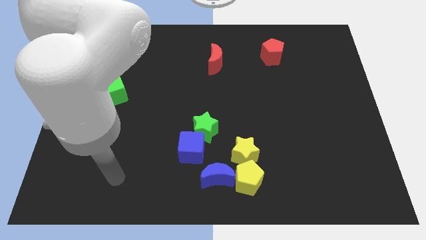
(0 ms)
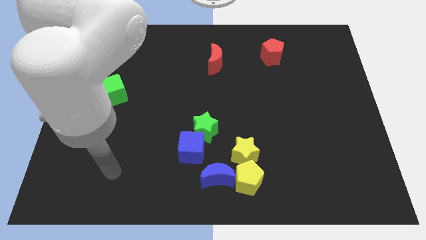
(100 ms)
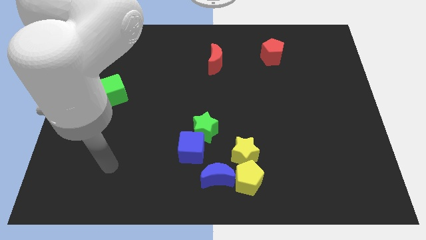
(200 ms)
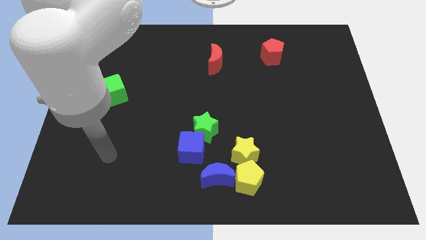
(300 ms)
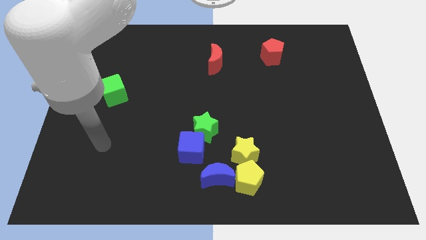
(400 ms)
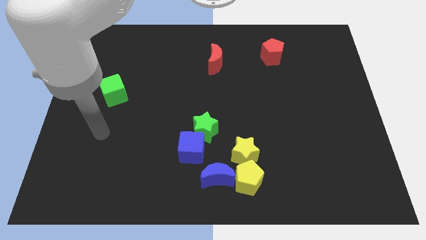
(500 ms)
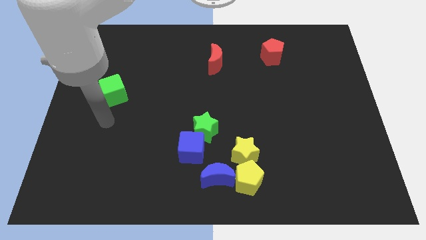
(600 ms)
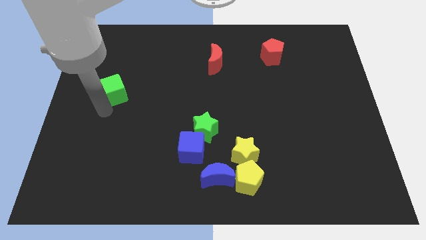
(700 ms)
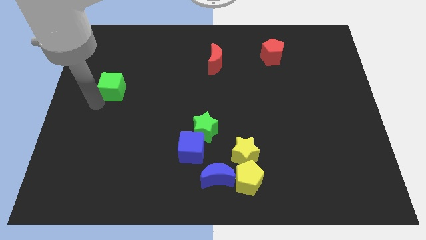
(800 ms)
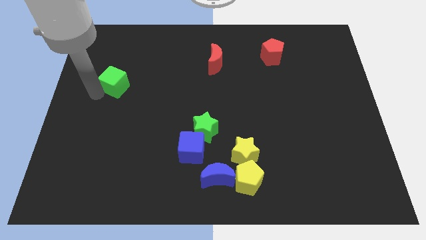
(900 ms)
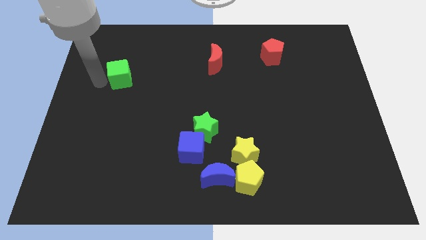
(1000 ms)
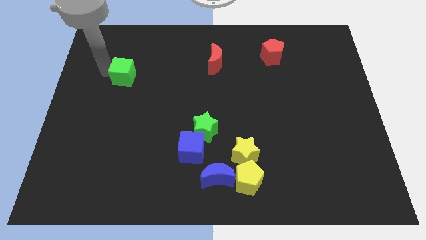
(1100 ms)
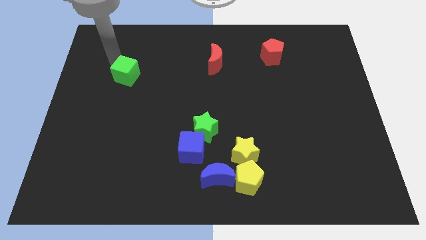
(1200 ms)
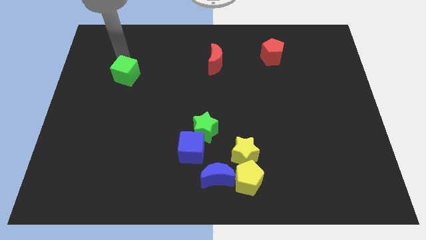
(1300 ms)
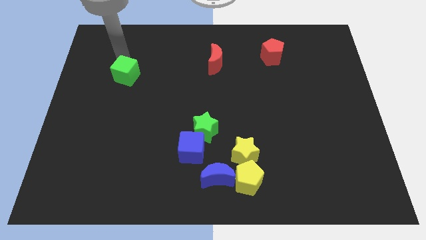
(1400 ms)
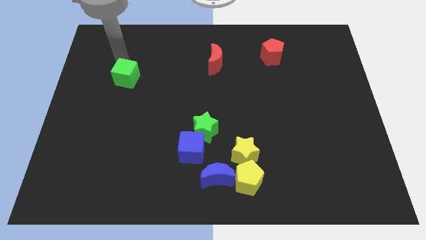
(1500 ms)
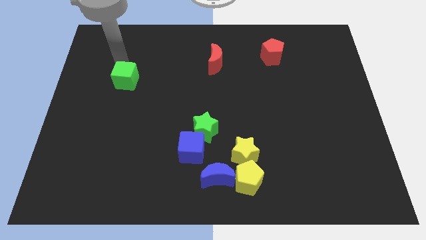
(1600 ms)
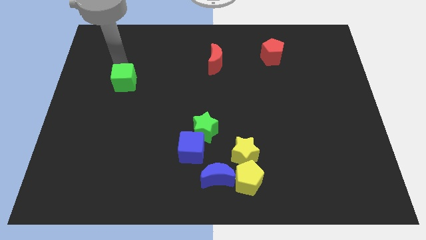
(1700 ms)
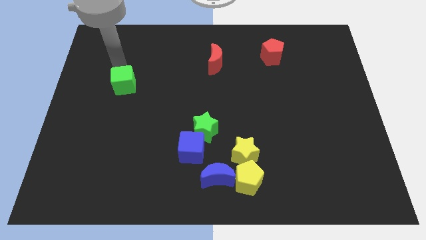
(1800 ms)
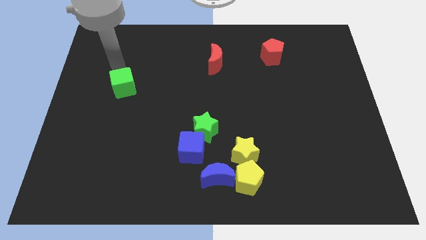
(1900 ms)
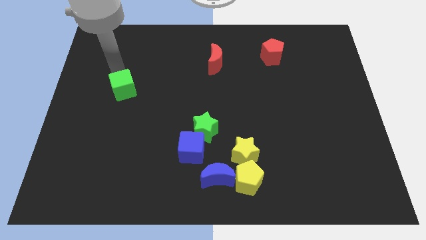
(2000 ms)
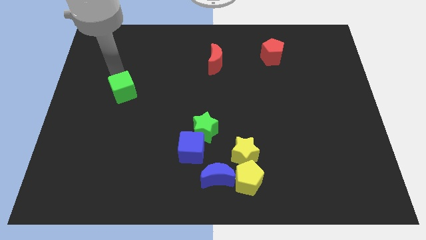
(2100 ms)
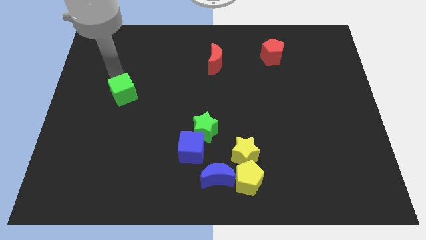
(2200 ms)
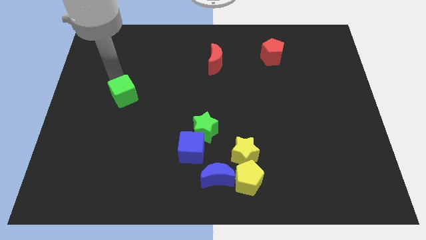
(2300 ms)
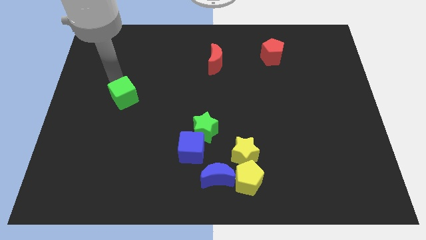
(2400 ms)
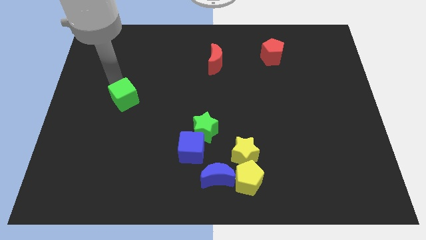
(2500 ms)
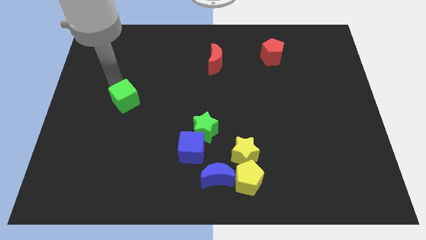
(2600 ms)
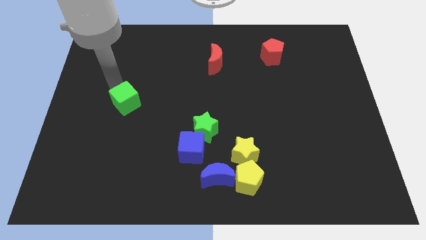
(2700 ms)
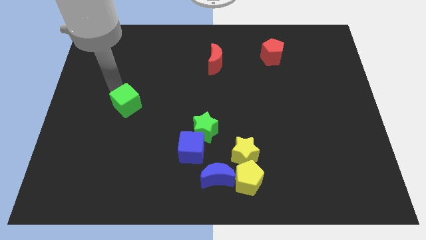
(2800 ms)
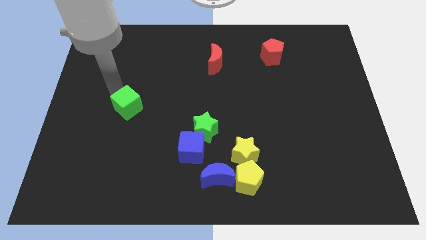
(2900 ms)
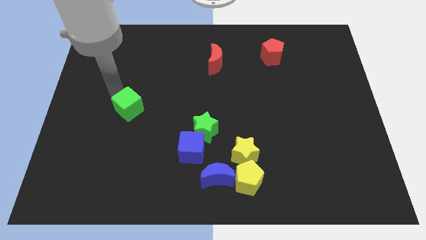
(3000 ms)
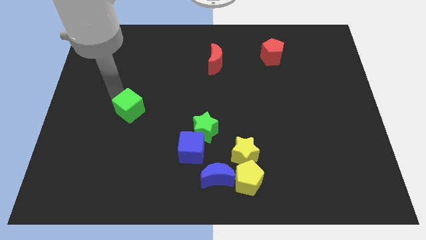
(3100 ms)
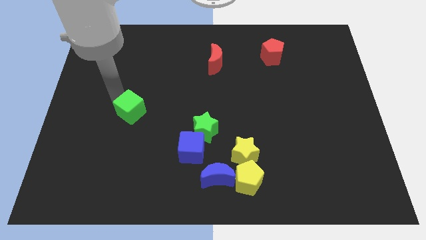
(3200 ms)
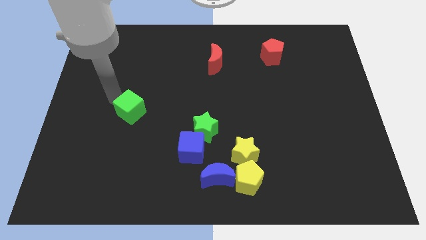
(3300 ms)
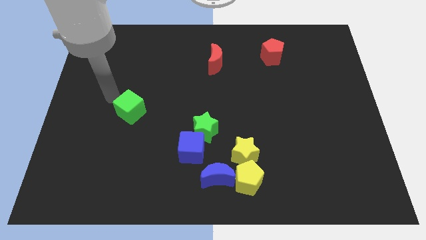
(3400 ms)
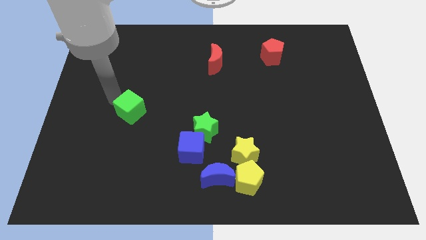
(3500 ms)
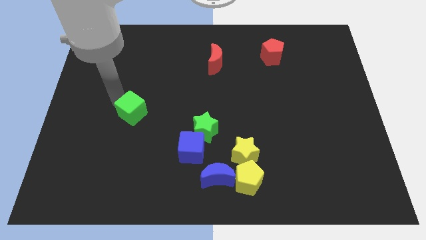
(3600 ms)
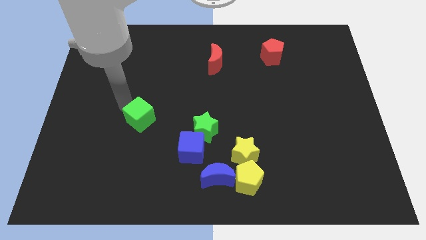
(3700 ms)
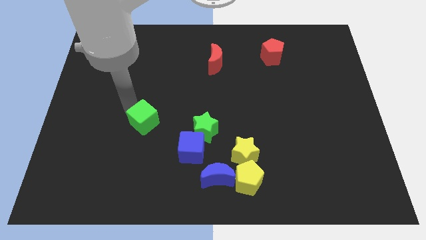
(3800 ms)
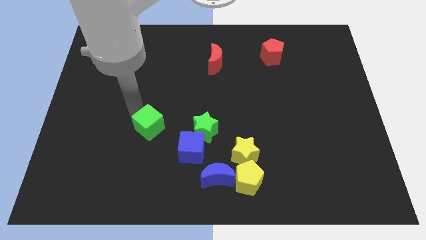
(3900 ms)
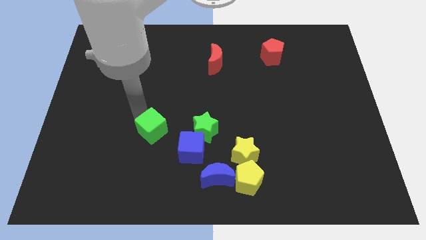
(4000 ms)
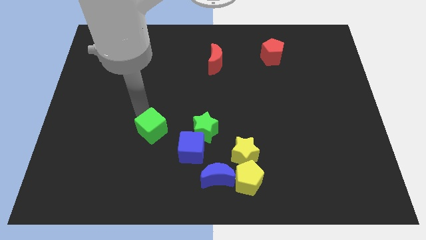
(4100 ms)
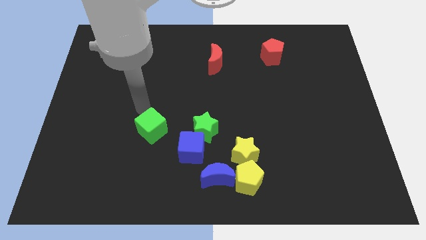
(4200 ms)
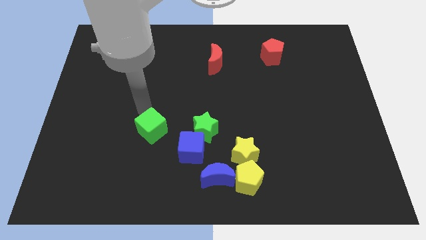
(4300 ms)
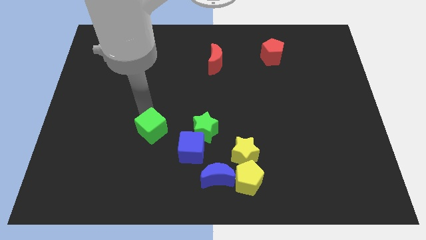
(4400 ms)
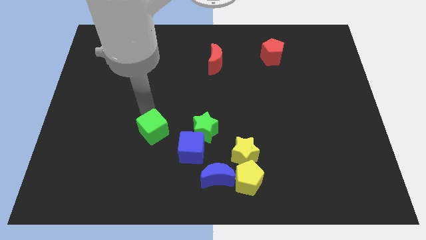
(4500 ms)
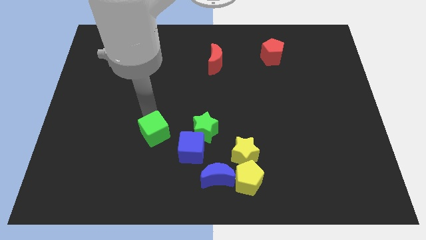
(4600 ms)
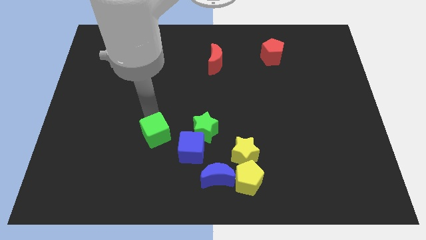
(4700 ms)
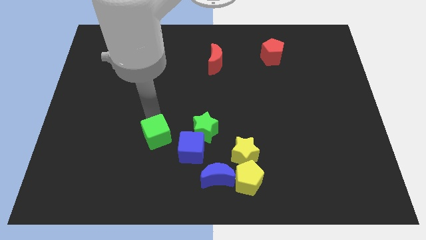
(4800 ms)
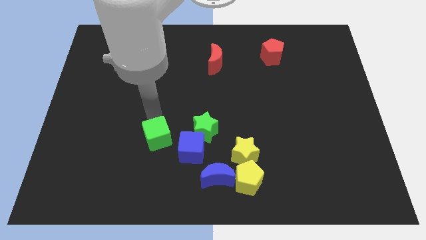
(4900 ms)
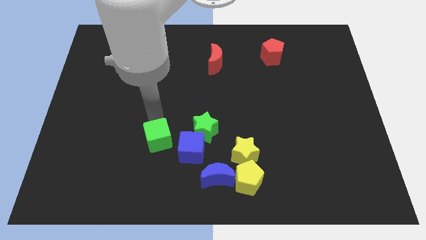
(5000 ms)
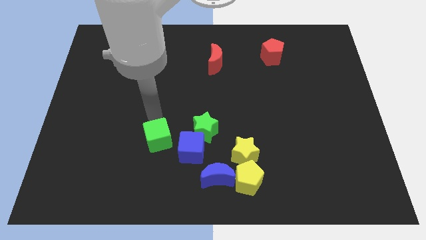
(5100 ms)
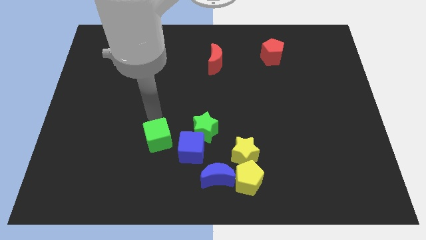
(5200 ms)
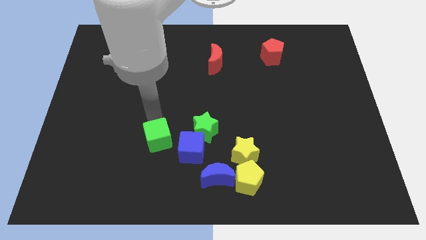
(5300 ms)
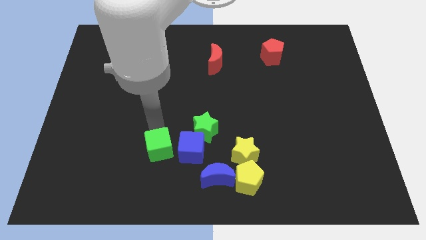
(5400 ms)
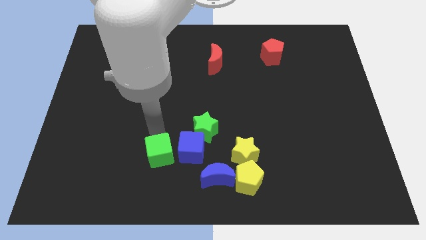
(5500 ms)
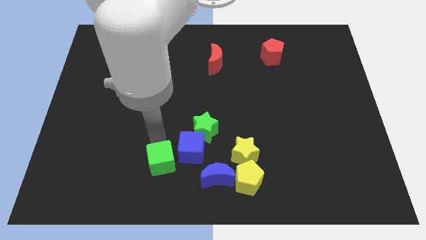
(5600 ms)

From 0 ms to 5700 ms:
push the green cube to the left side of the blue moon

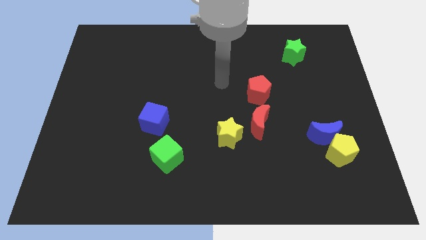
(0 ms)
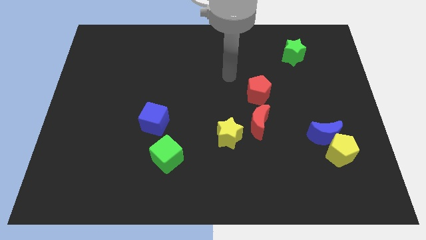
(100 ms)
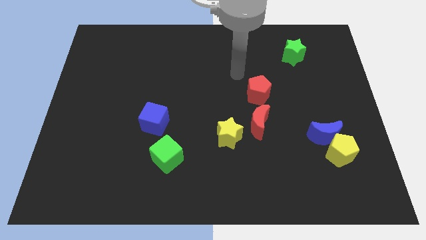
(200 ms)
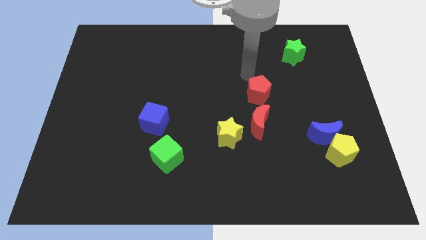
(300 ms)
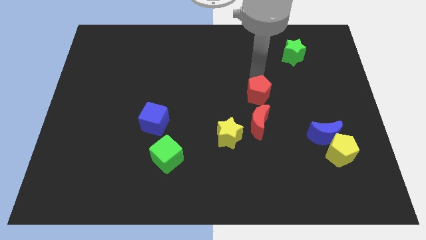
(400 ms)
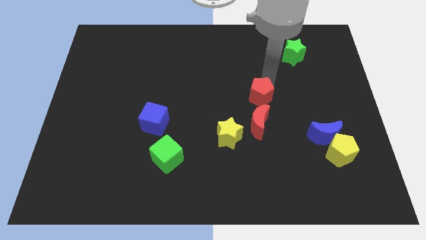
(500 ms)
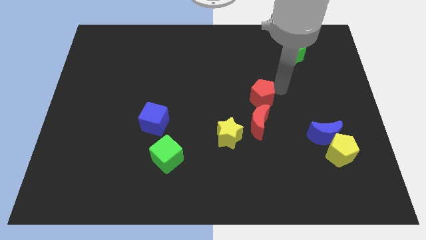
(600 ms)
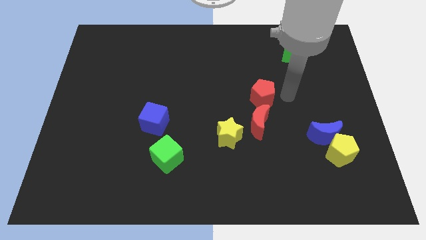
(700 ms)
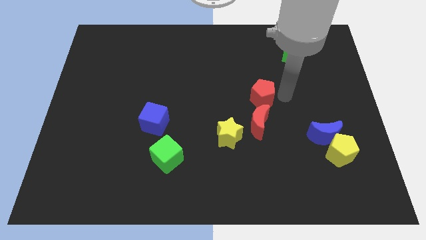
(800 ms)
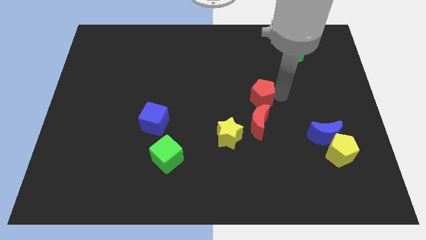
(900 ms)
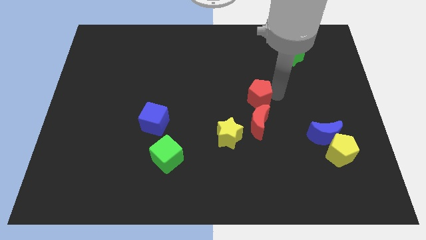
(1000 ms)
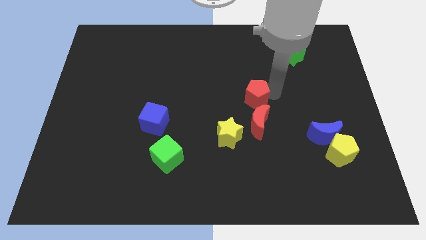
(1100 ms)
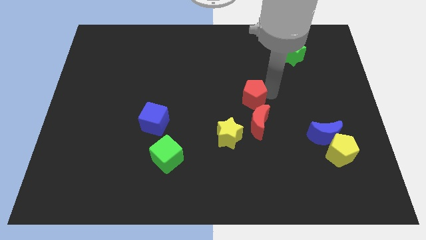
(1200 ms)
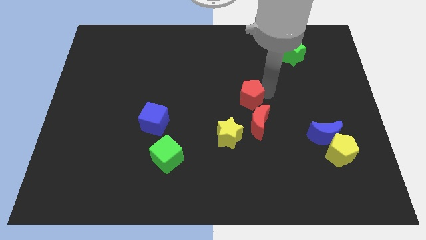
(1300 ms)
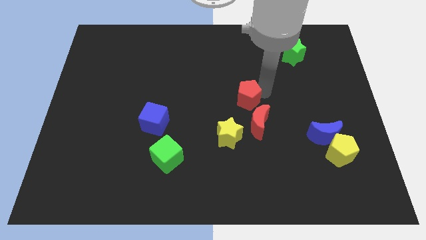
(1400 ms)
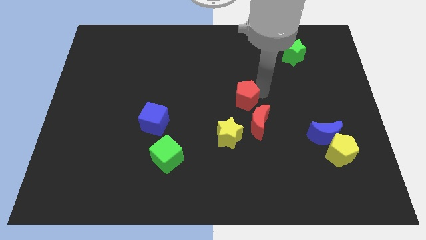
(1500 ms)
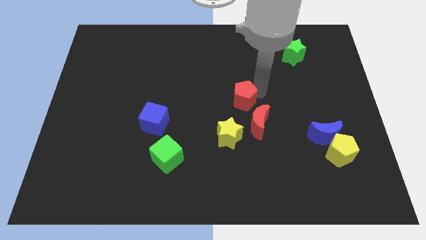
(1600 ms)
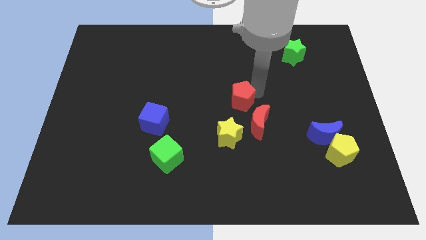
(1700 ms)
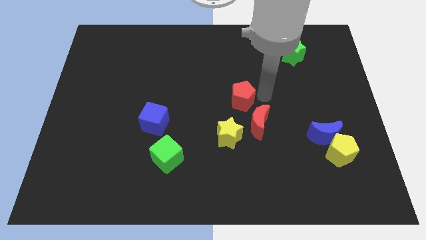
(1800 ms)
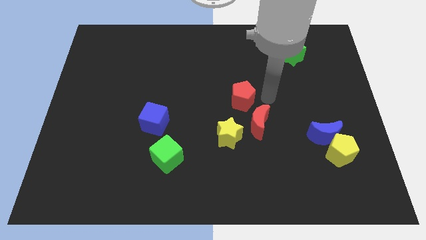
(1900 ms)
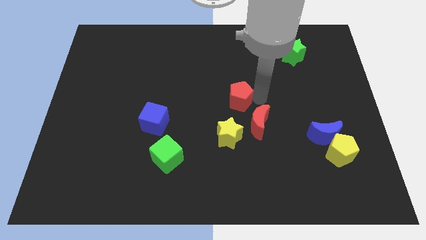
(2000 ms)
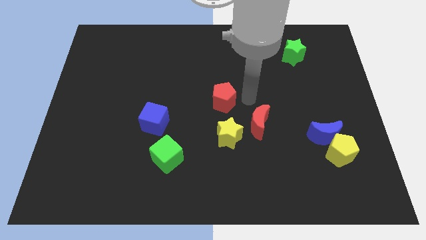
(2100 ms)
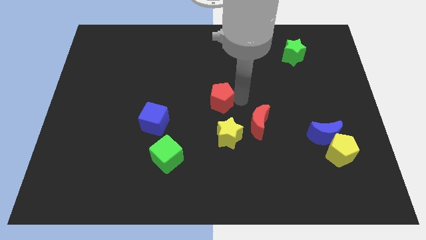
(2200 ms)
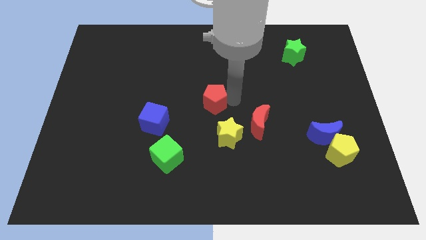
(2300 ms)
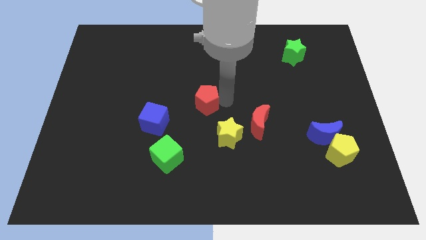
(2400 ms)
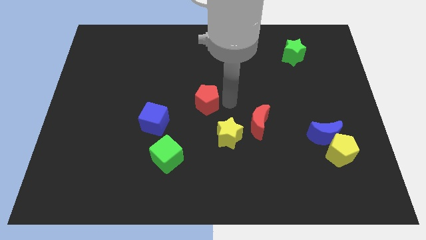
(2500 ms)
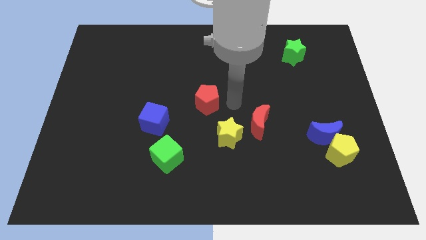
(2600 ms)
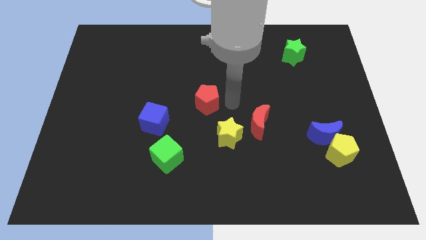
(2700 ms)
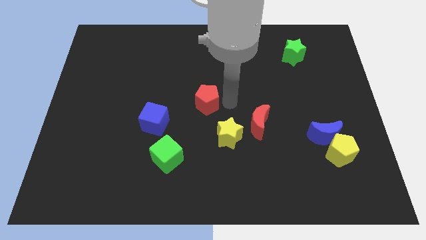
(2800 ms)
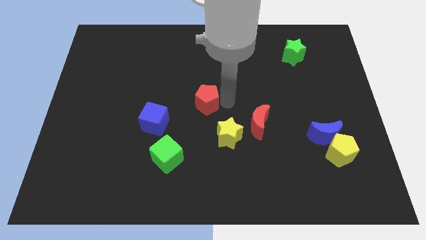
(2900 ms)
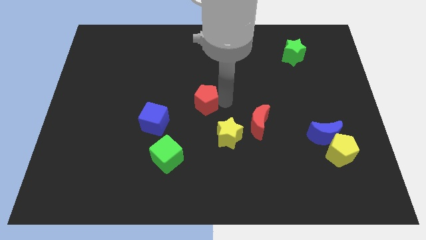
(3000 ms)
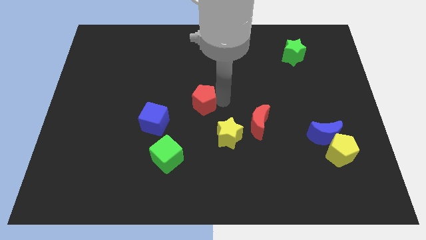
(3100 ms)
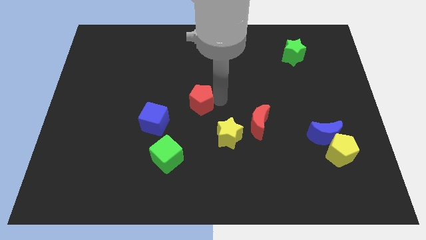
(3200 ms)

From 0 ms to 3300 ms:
put the red pentagon diagonally up and to the right of the blue cube
